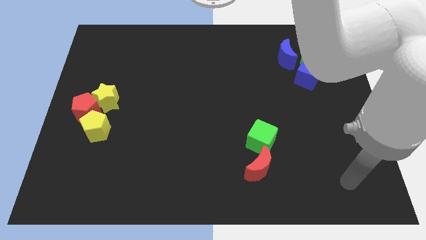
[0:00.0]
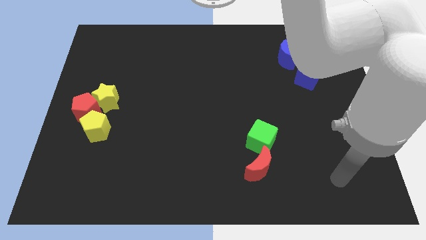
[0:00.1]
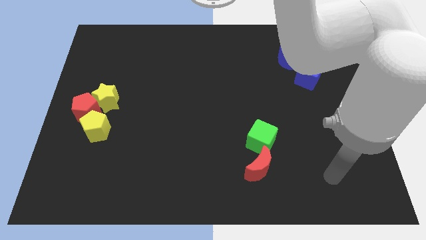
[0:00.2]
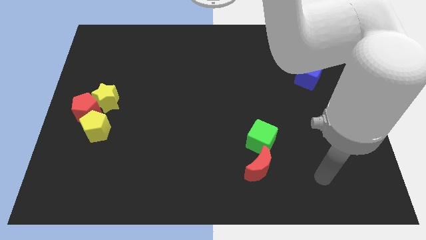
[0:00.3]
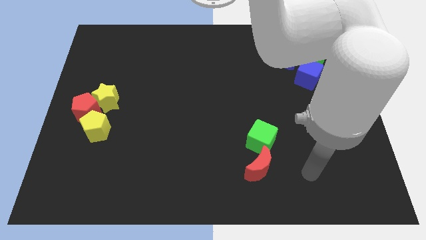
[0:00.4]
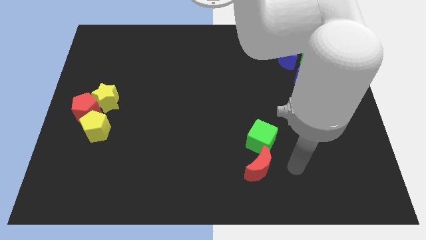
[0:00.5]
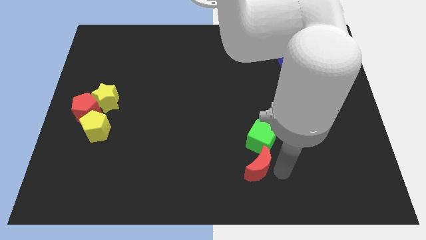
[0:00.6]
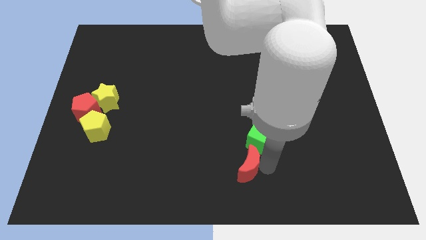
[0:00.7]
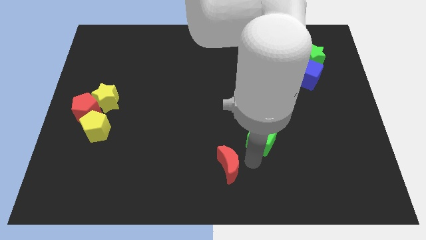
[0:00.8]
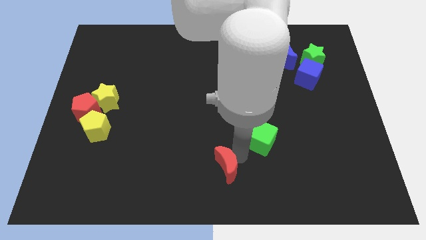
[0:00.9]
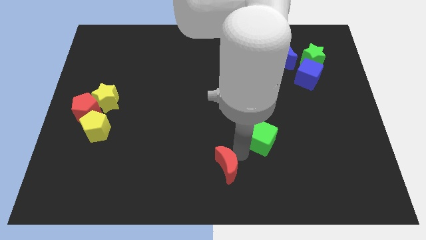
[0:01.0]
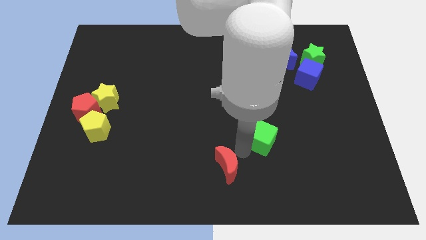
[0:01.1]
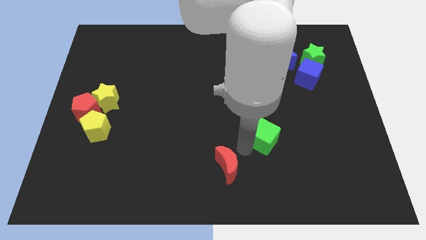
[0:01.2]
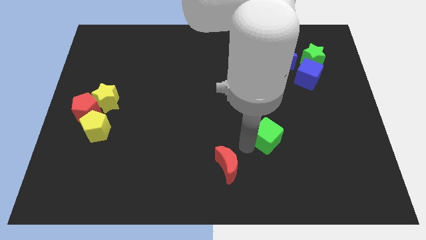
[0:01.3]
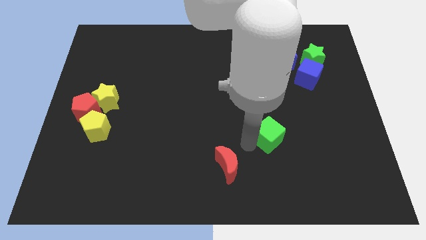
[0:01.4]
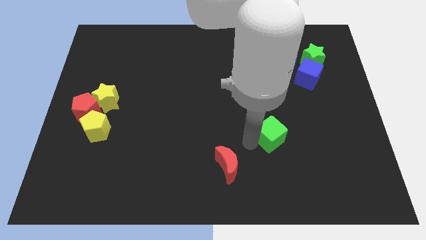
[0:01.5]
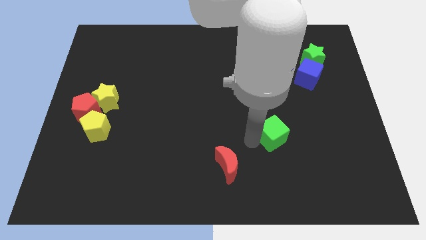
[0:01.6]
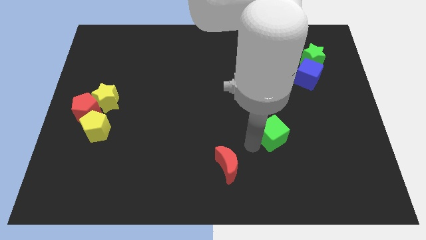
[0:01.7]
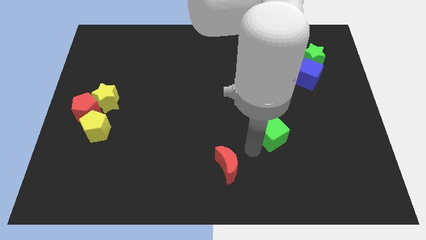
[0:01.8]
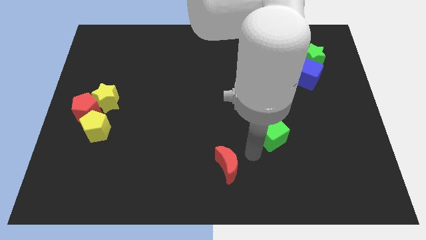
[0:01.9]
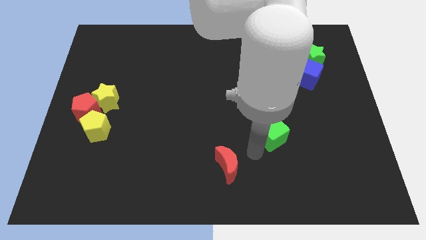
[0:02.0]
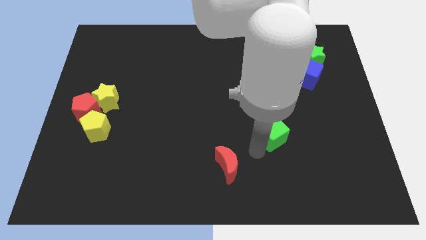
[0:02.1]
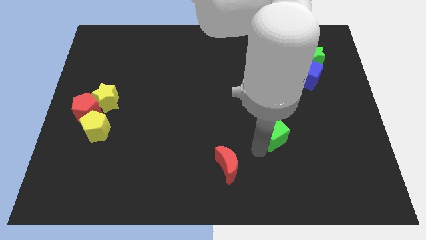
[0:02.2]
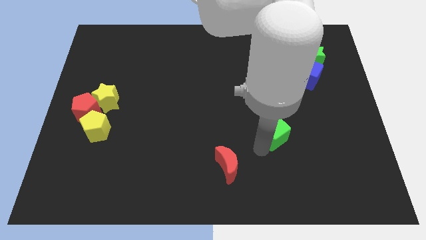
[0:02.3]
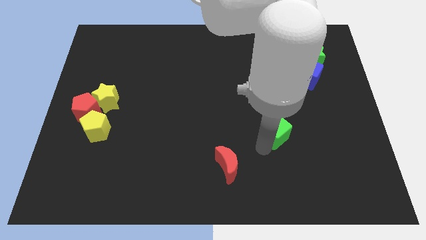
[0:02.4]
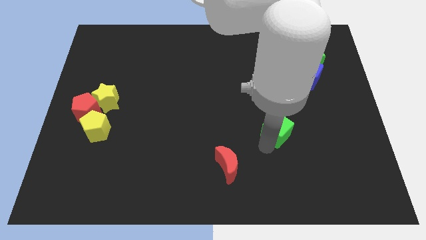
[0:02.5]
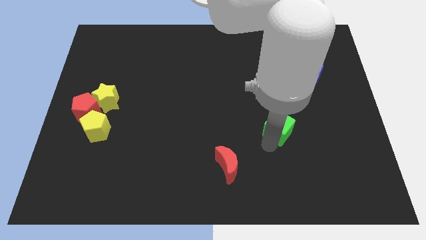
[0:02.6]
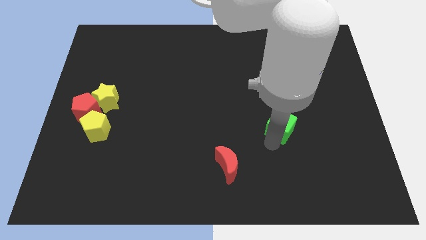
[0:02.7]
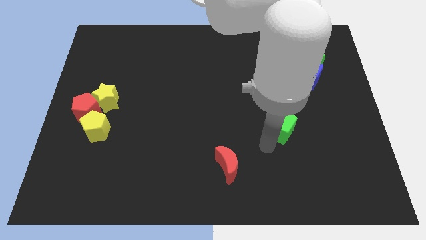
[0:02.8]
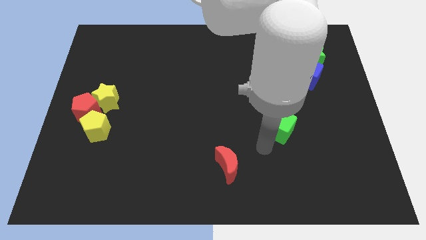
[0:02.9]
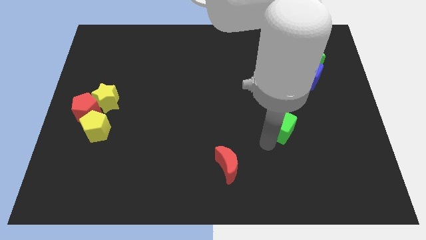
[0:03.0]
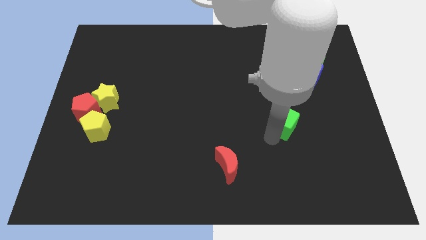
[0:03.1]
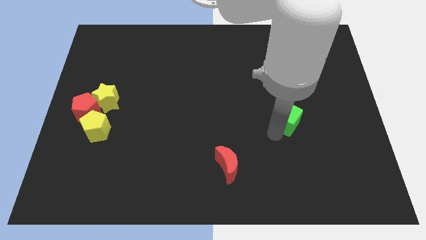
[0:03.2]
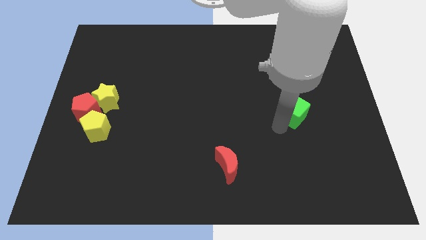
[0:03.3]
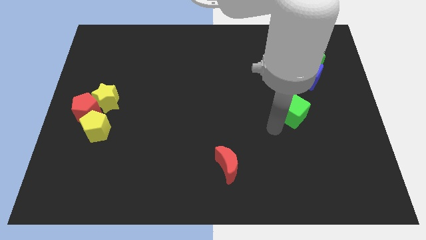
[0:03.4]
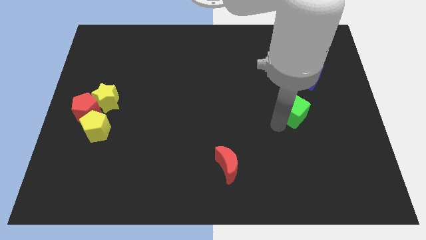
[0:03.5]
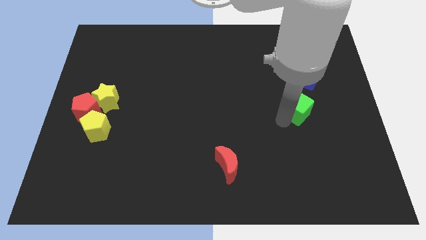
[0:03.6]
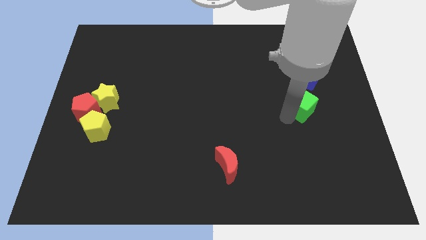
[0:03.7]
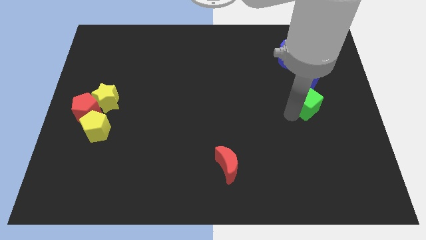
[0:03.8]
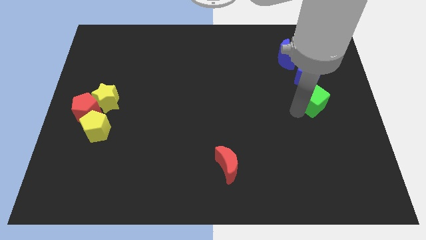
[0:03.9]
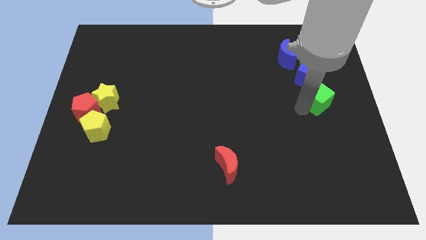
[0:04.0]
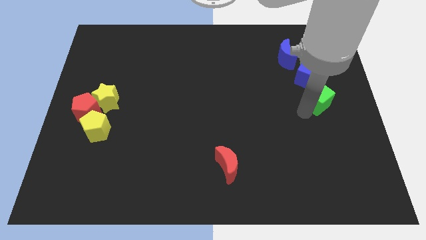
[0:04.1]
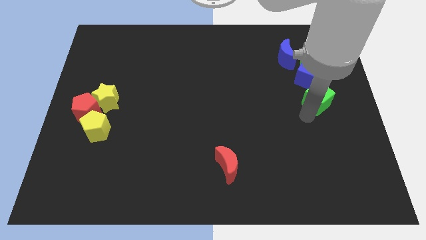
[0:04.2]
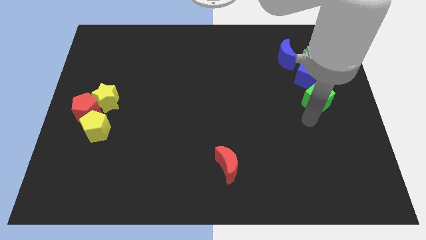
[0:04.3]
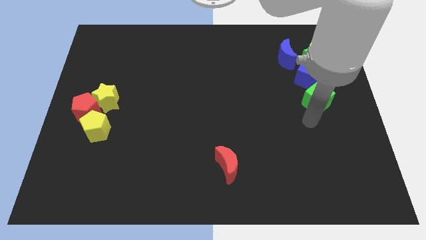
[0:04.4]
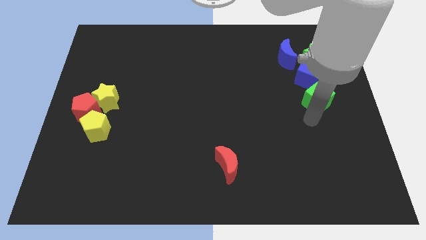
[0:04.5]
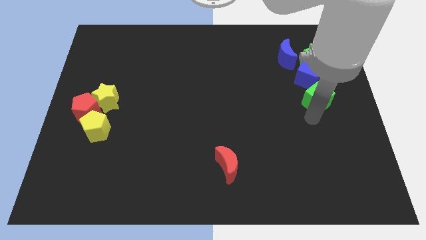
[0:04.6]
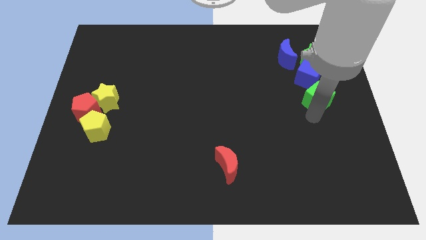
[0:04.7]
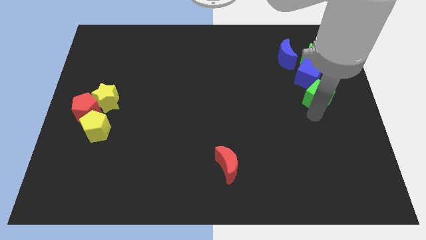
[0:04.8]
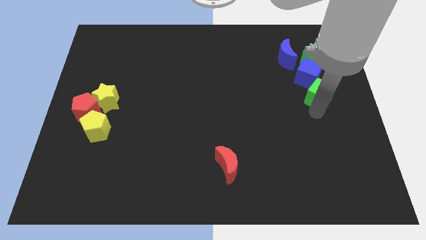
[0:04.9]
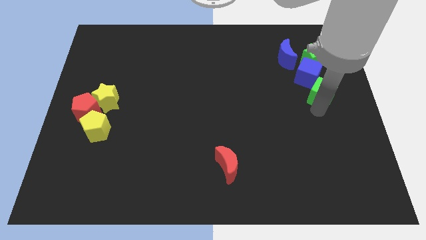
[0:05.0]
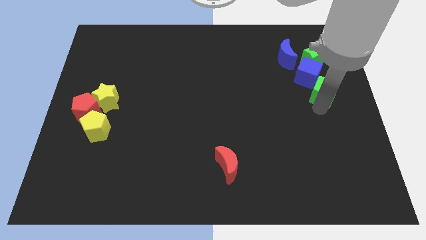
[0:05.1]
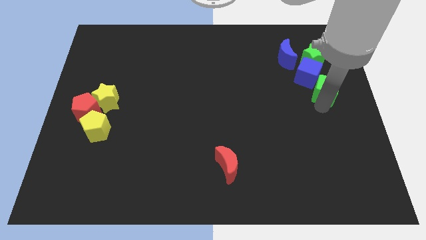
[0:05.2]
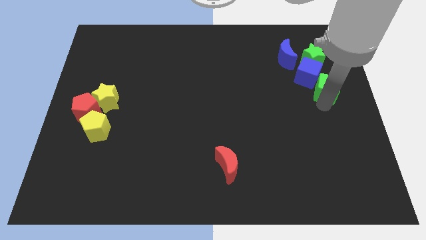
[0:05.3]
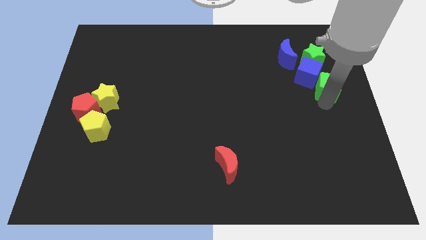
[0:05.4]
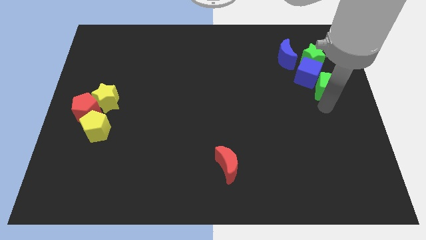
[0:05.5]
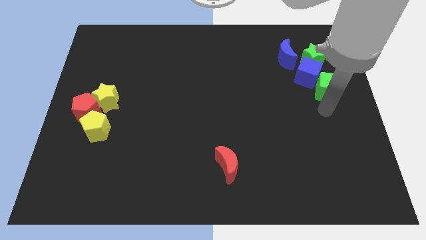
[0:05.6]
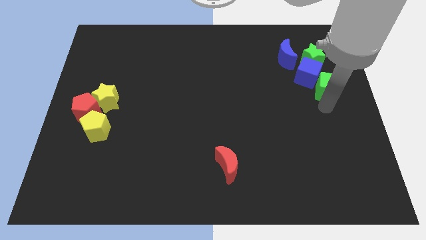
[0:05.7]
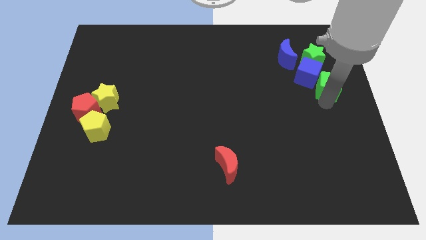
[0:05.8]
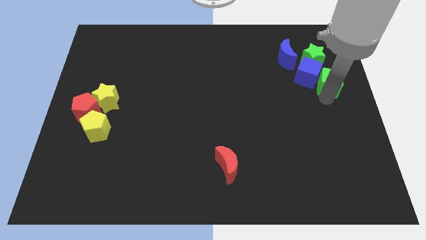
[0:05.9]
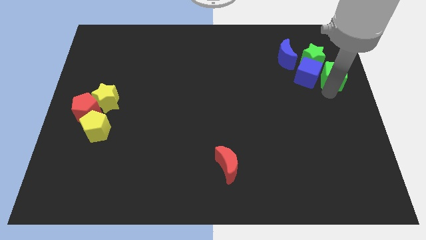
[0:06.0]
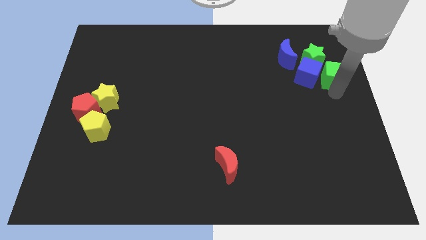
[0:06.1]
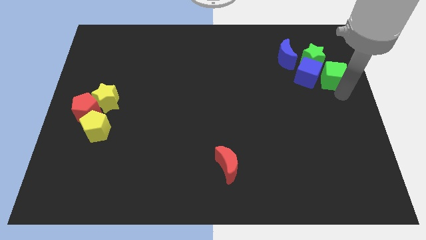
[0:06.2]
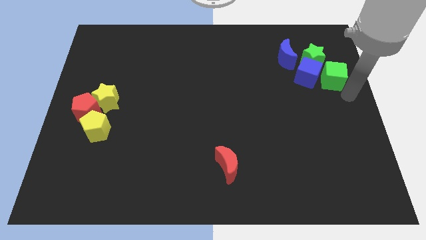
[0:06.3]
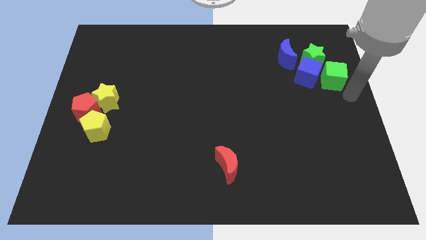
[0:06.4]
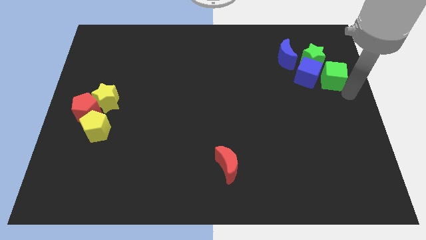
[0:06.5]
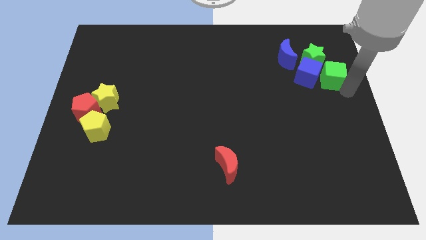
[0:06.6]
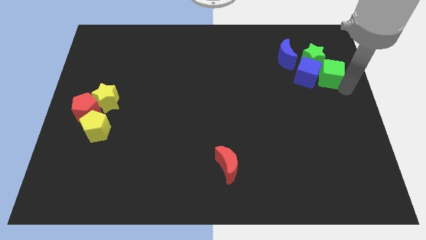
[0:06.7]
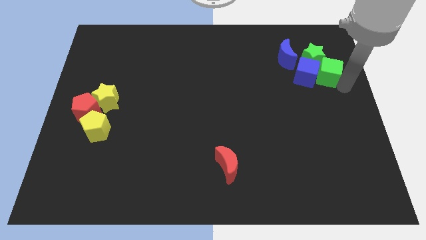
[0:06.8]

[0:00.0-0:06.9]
put the green cube next to the green star

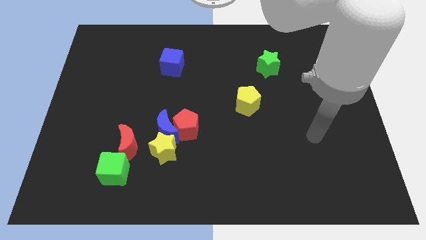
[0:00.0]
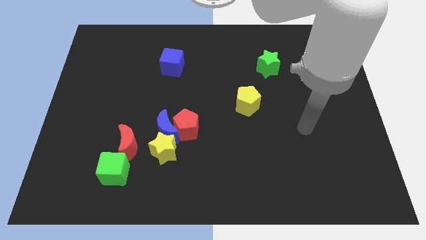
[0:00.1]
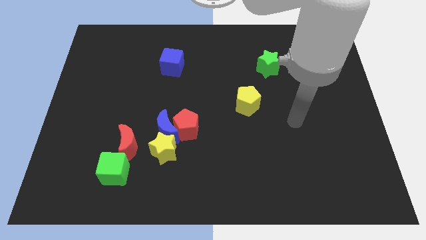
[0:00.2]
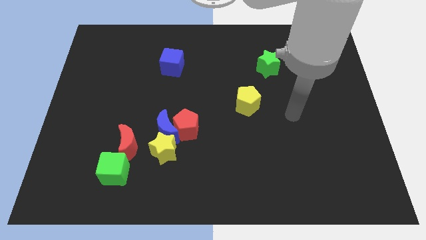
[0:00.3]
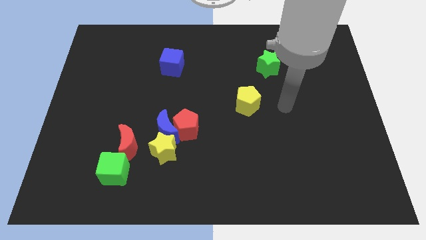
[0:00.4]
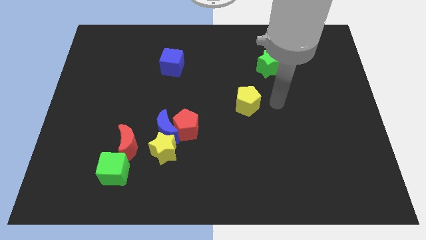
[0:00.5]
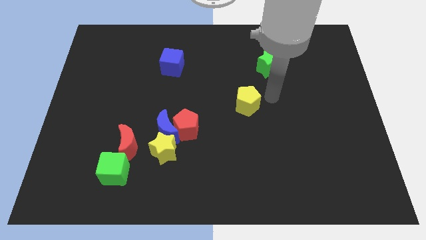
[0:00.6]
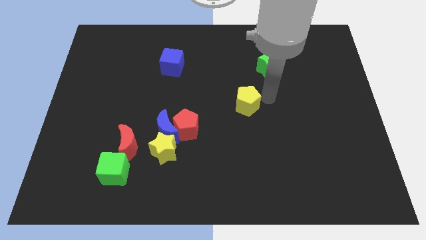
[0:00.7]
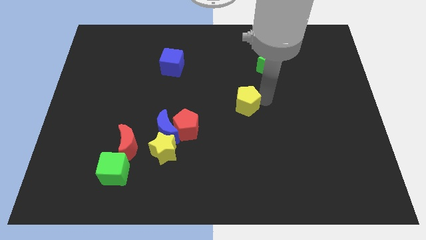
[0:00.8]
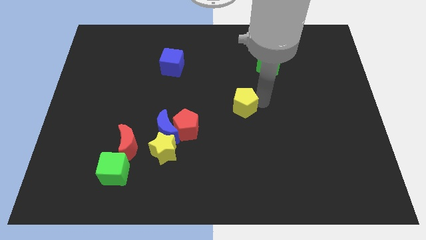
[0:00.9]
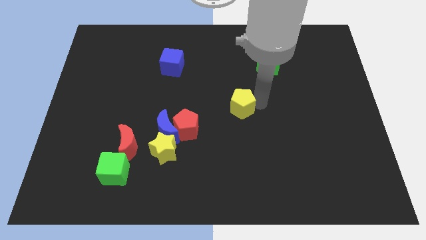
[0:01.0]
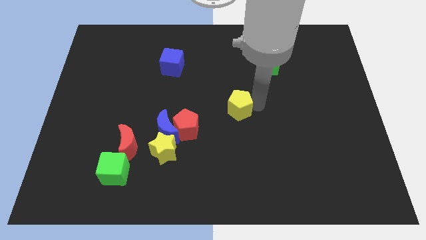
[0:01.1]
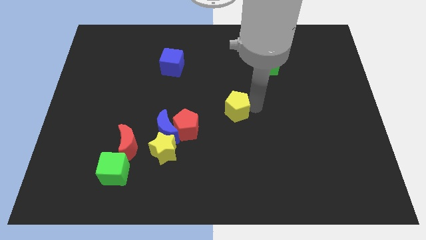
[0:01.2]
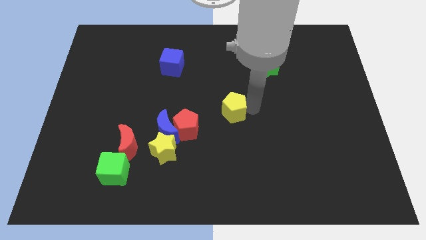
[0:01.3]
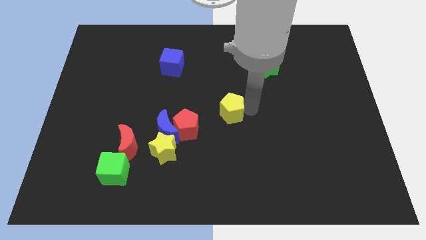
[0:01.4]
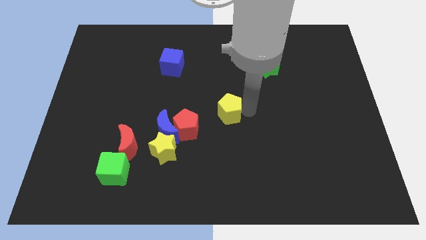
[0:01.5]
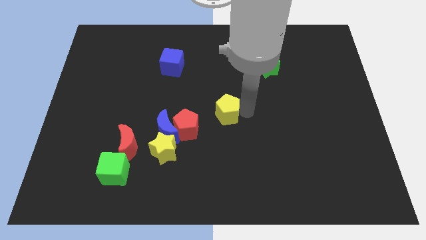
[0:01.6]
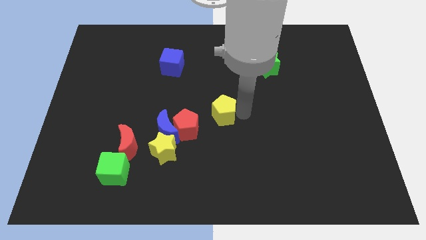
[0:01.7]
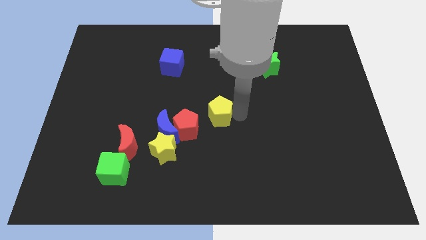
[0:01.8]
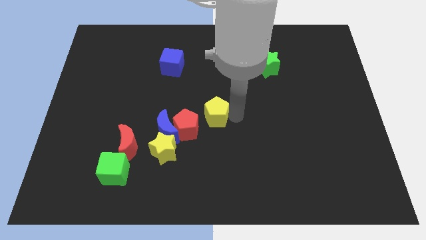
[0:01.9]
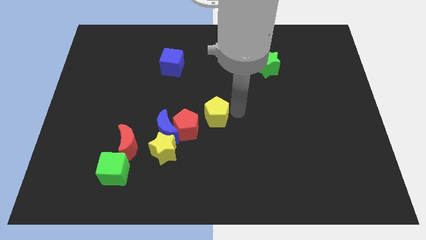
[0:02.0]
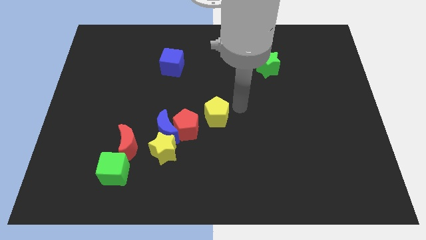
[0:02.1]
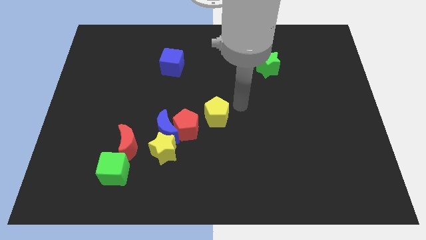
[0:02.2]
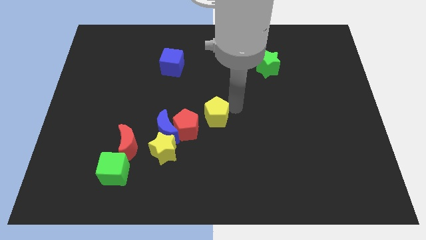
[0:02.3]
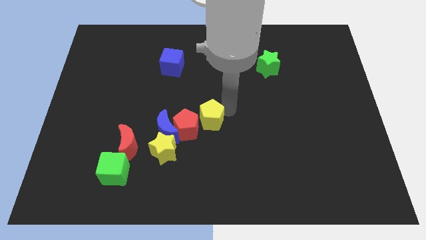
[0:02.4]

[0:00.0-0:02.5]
move the yellow pentagon next to the red pentagon
